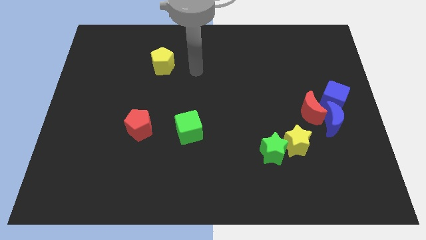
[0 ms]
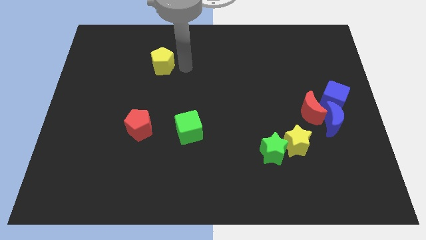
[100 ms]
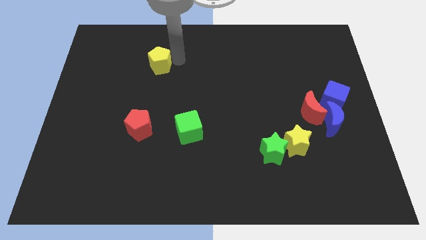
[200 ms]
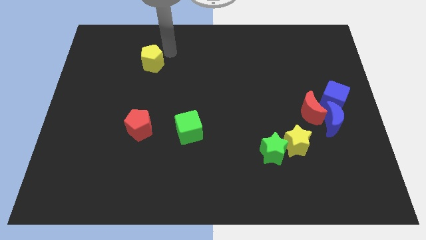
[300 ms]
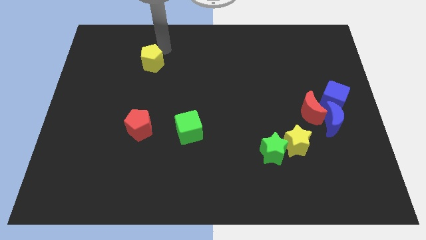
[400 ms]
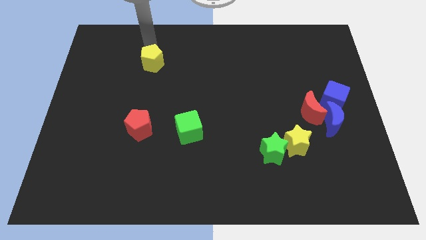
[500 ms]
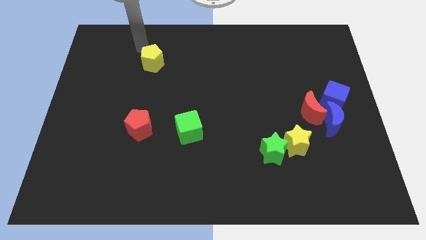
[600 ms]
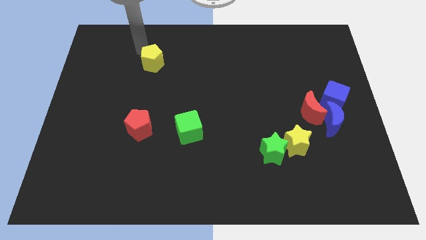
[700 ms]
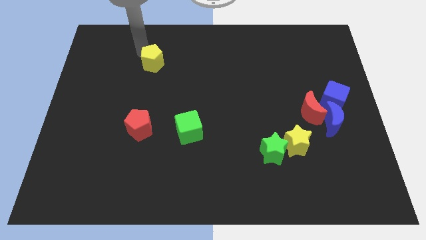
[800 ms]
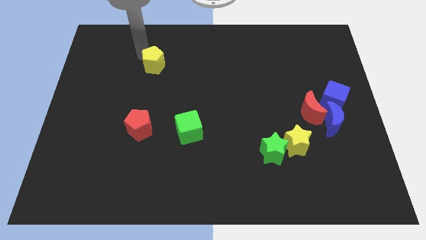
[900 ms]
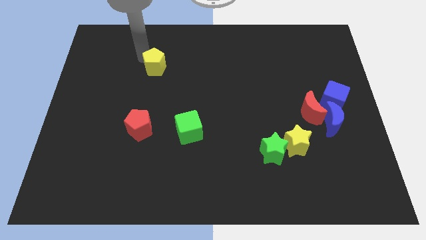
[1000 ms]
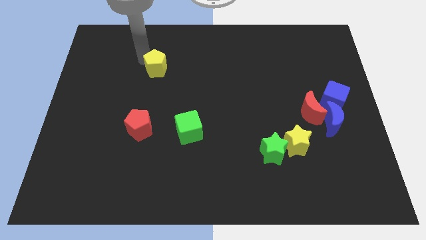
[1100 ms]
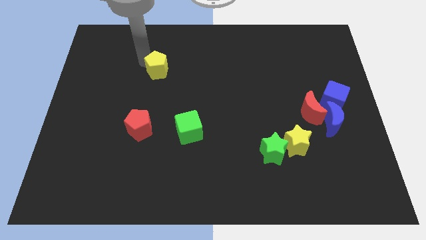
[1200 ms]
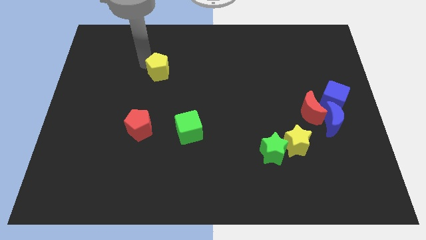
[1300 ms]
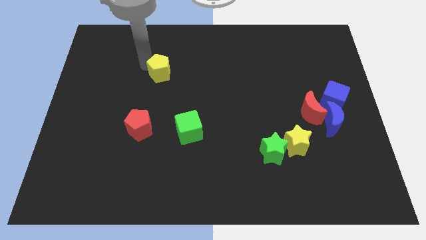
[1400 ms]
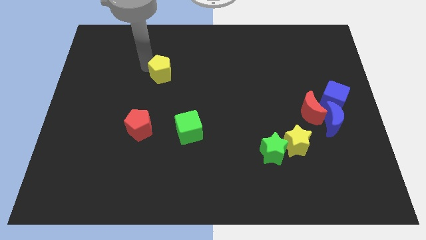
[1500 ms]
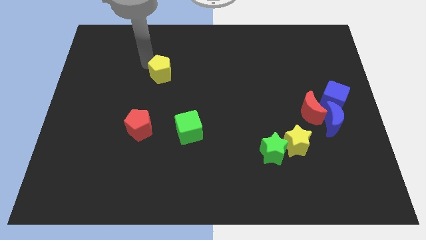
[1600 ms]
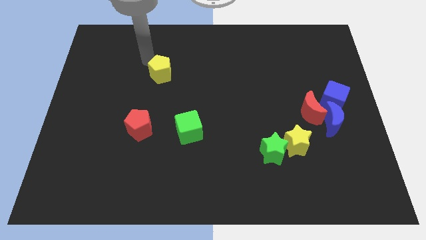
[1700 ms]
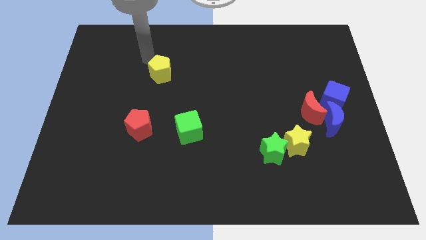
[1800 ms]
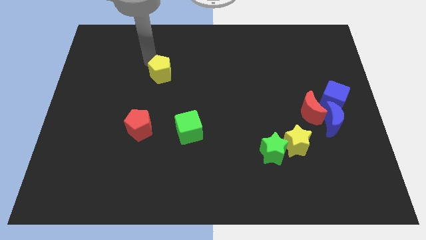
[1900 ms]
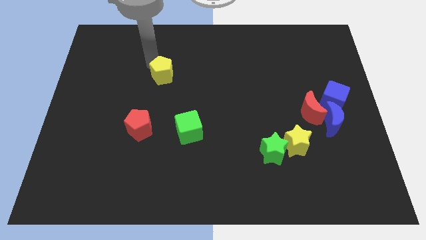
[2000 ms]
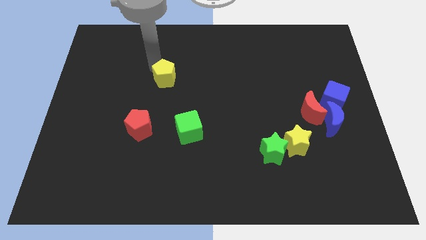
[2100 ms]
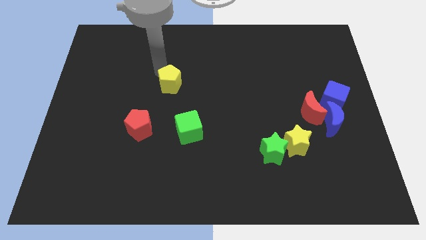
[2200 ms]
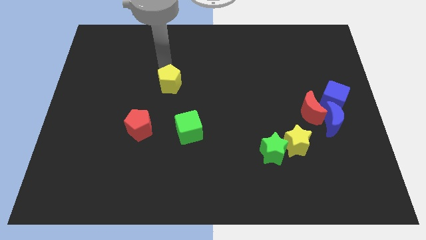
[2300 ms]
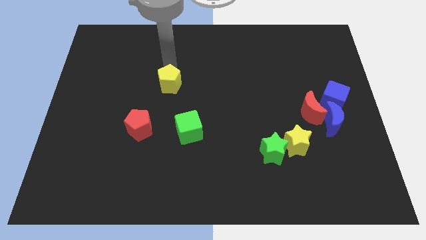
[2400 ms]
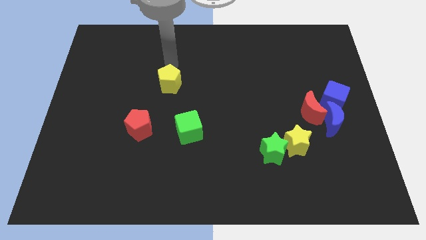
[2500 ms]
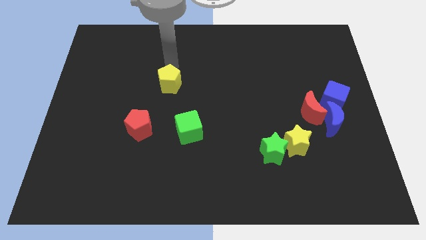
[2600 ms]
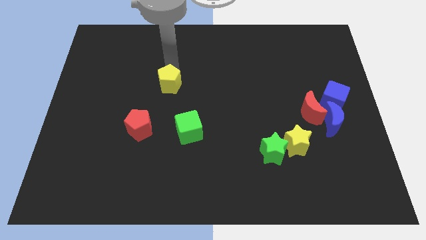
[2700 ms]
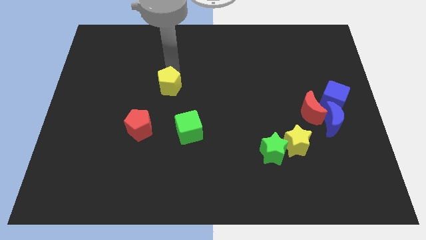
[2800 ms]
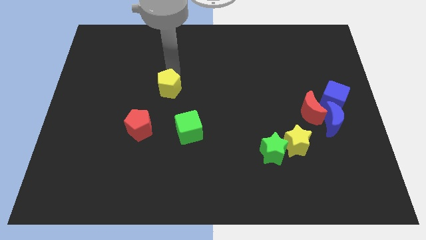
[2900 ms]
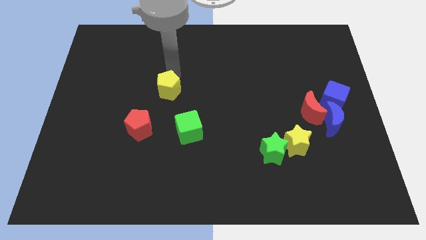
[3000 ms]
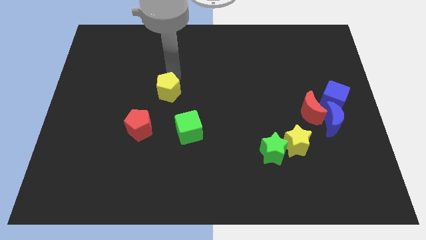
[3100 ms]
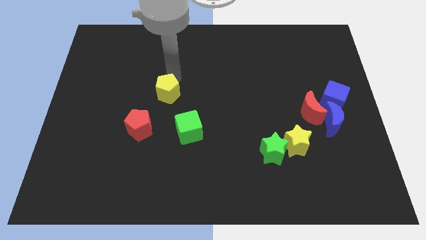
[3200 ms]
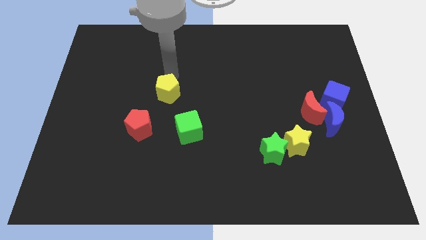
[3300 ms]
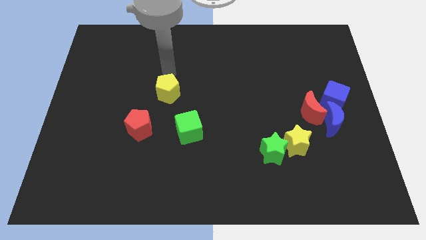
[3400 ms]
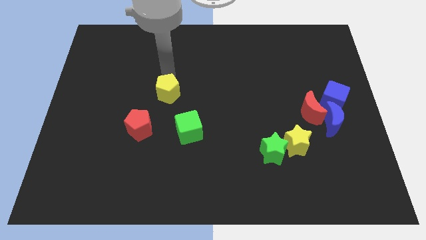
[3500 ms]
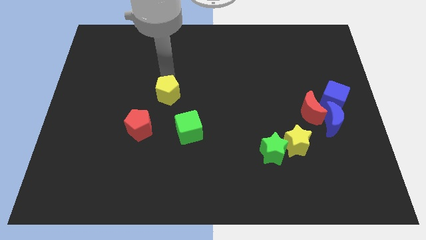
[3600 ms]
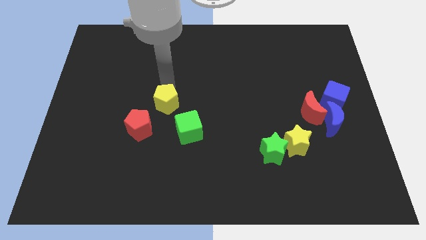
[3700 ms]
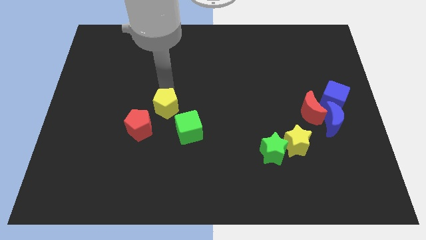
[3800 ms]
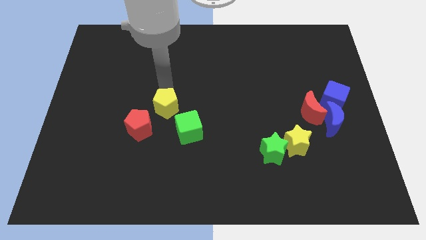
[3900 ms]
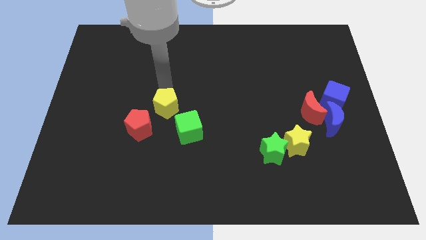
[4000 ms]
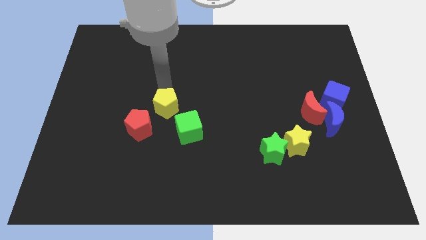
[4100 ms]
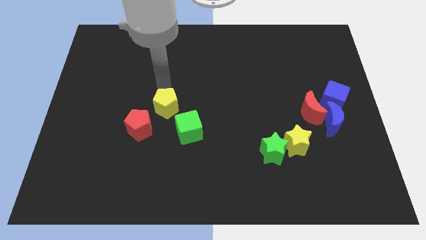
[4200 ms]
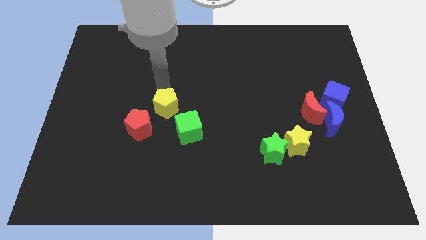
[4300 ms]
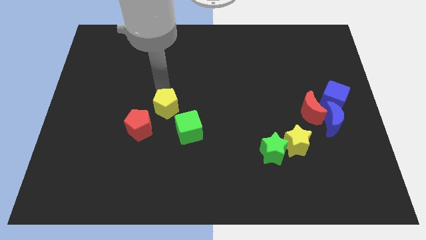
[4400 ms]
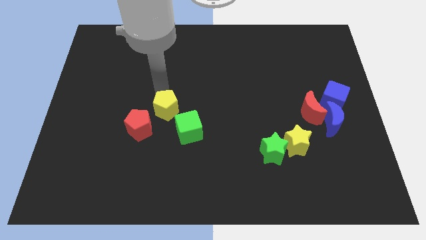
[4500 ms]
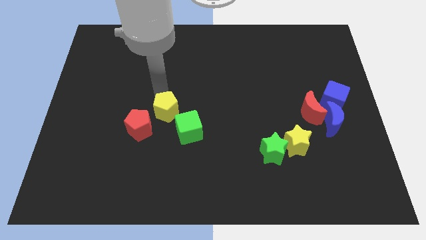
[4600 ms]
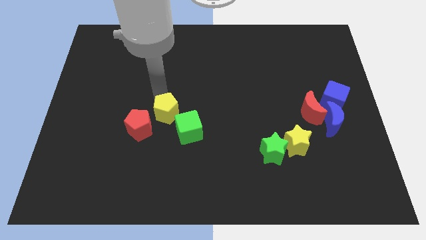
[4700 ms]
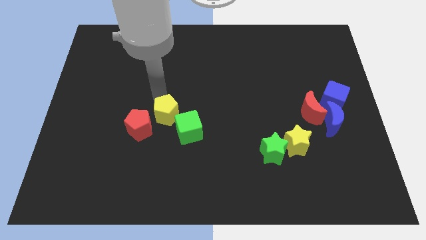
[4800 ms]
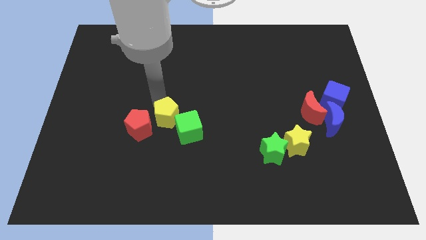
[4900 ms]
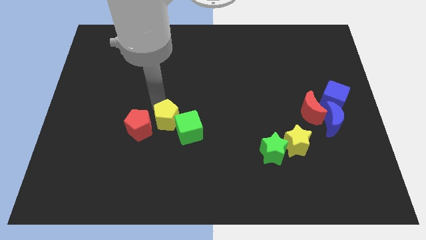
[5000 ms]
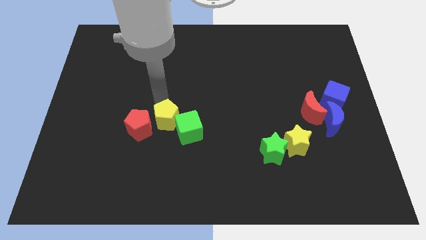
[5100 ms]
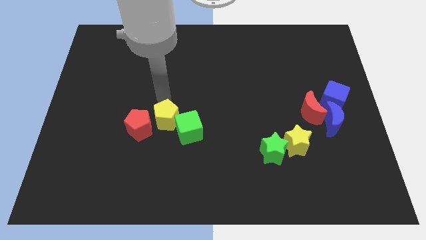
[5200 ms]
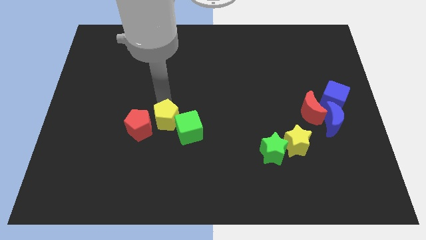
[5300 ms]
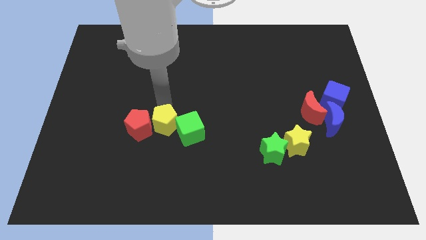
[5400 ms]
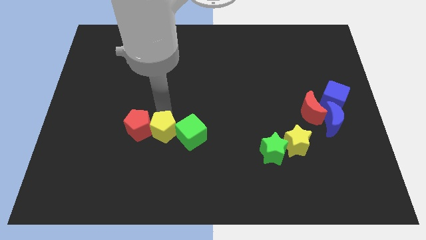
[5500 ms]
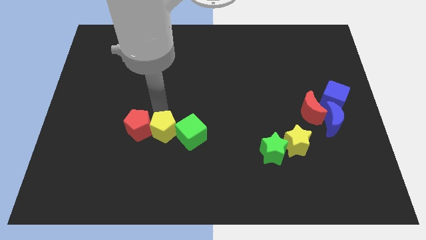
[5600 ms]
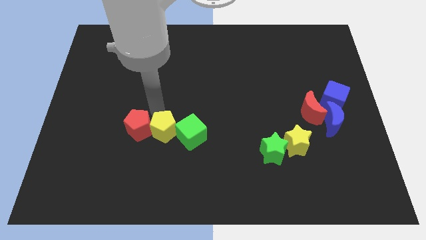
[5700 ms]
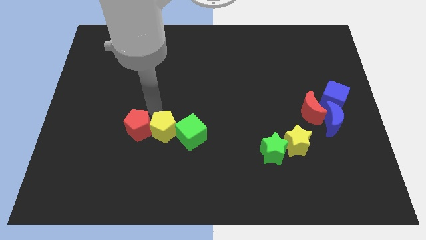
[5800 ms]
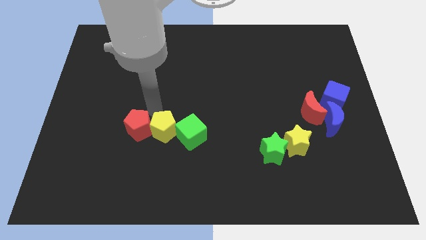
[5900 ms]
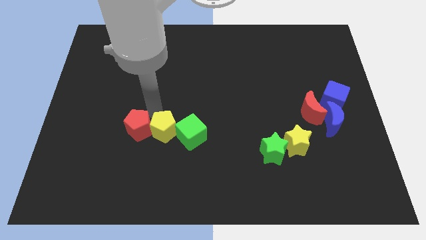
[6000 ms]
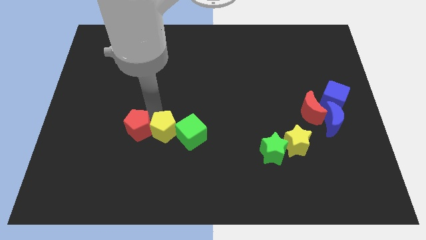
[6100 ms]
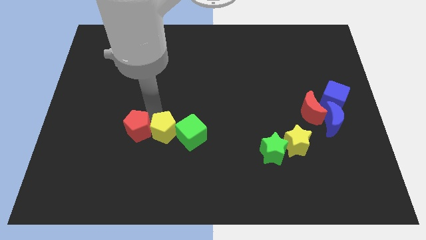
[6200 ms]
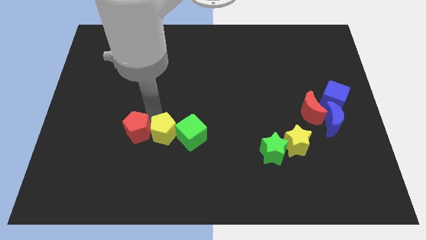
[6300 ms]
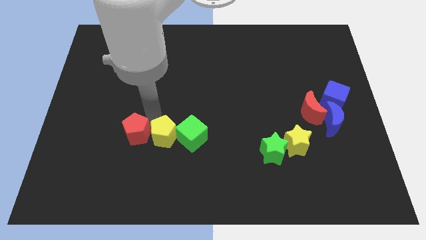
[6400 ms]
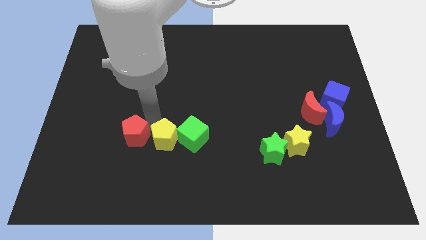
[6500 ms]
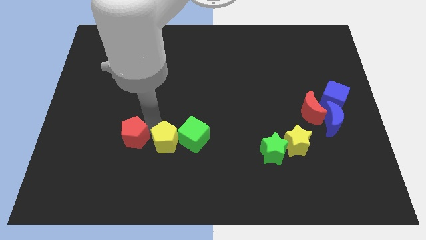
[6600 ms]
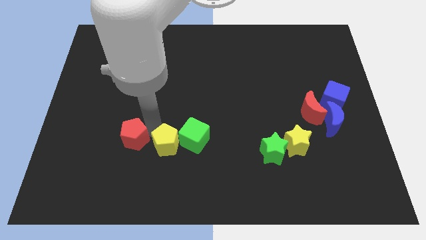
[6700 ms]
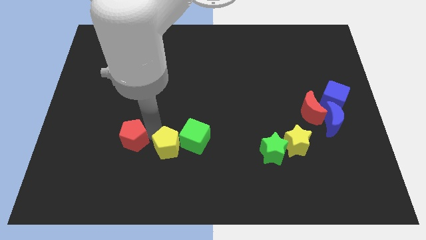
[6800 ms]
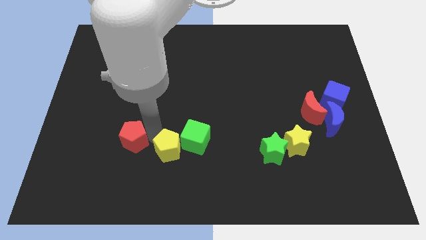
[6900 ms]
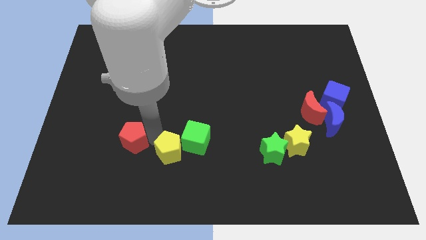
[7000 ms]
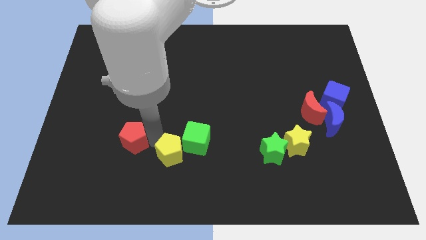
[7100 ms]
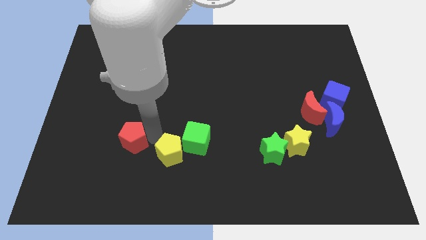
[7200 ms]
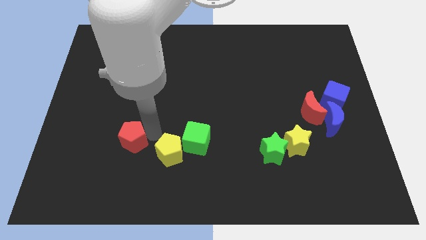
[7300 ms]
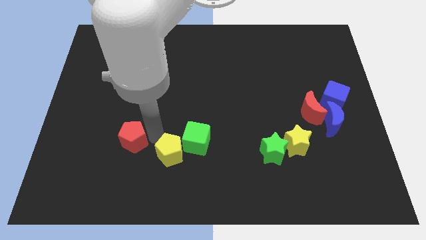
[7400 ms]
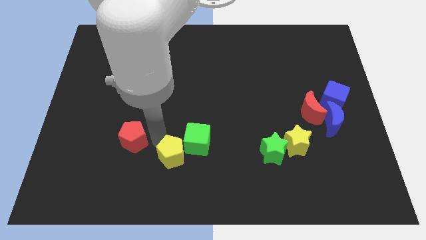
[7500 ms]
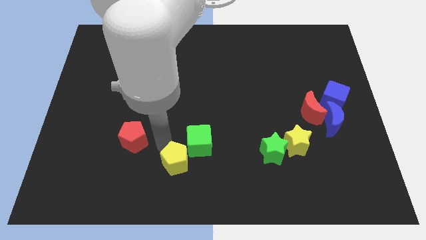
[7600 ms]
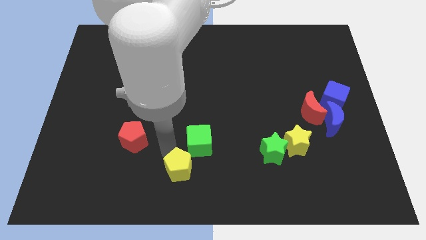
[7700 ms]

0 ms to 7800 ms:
slide the yellow pentagon to the bottom
